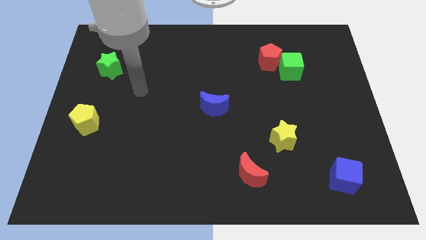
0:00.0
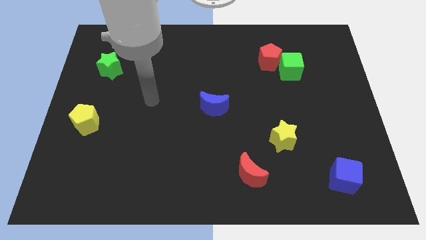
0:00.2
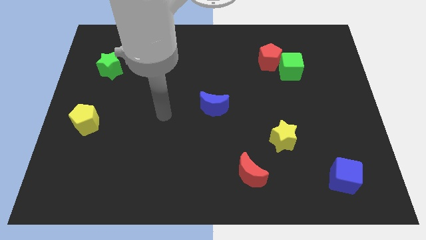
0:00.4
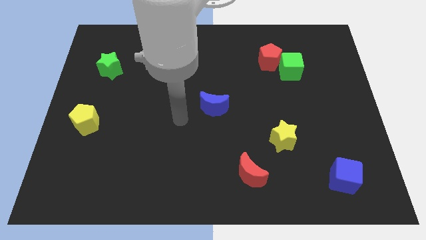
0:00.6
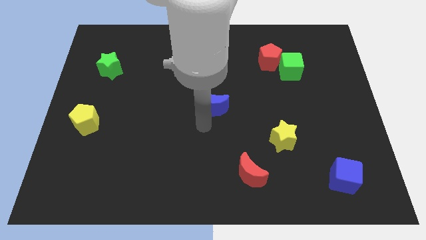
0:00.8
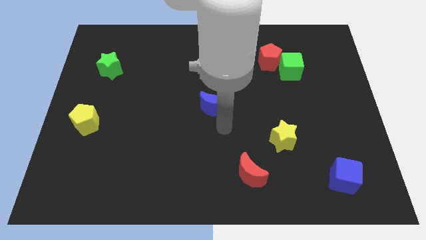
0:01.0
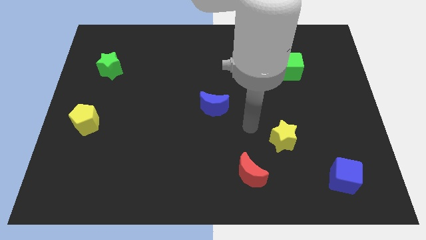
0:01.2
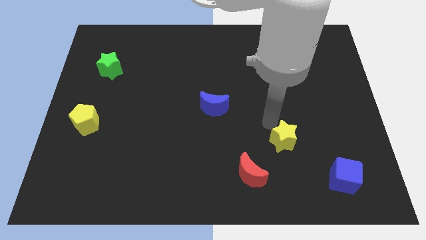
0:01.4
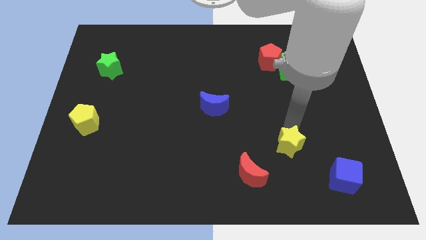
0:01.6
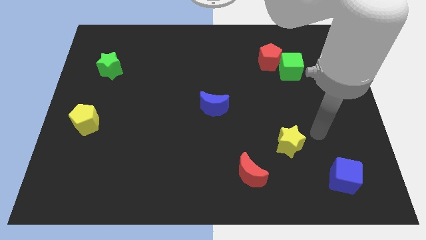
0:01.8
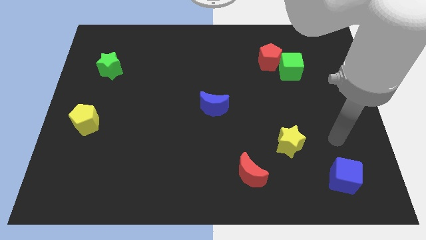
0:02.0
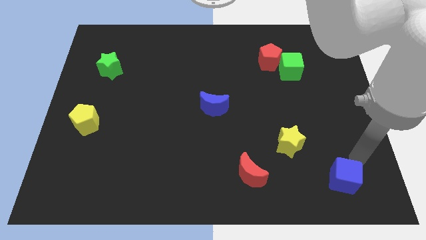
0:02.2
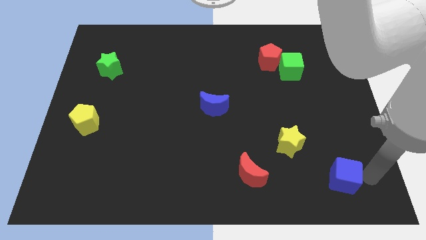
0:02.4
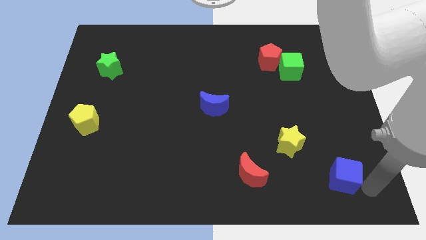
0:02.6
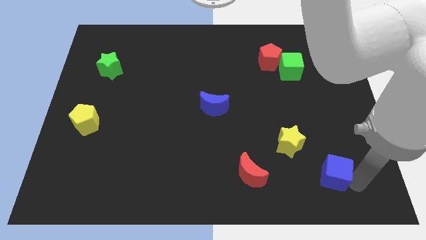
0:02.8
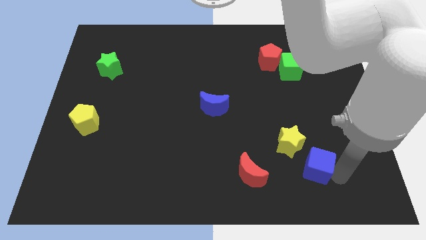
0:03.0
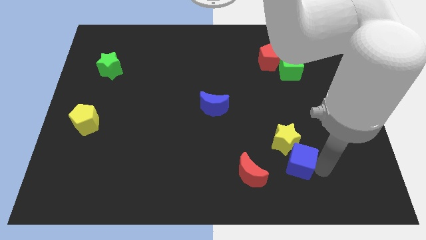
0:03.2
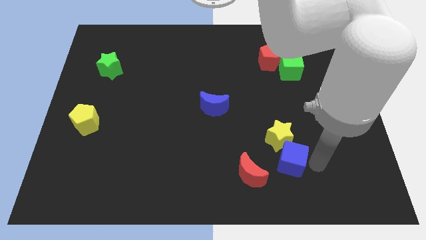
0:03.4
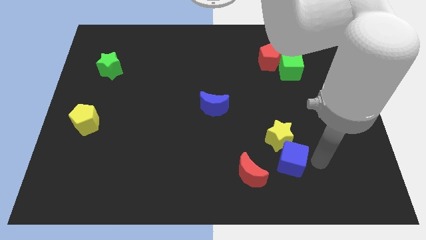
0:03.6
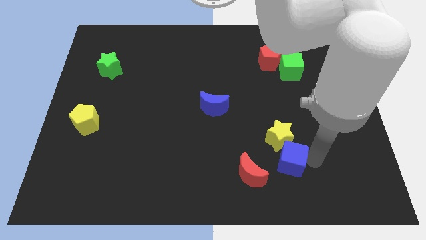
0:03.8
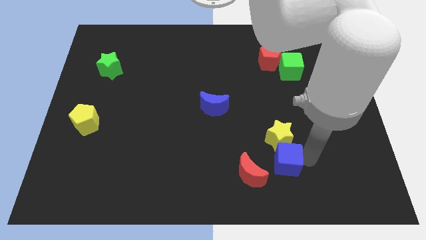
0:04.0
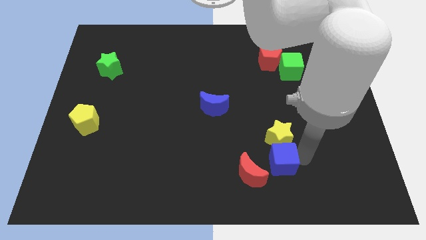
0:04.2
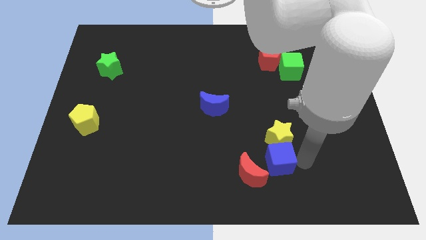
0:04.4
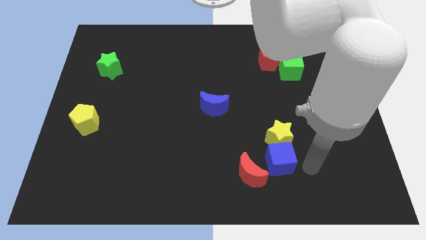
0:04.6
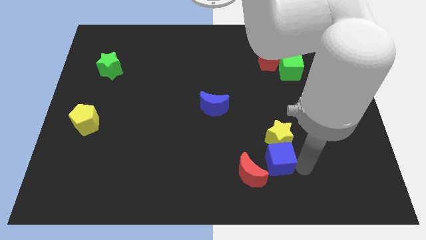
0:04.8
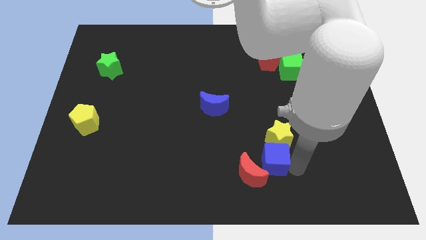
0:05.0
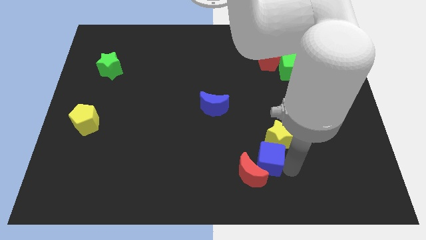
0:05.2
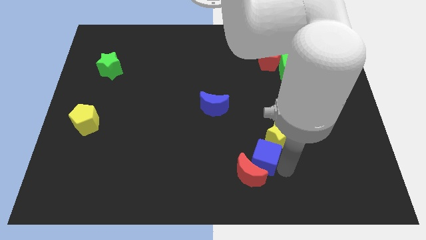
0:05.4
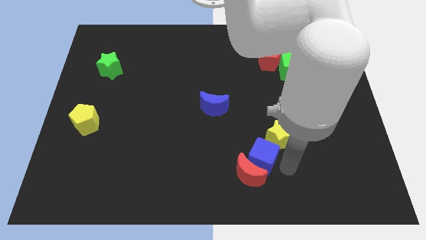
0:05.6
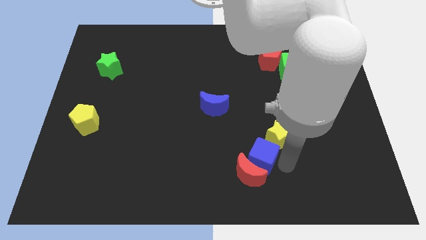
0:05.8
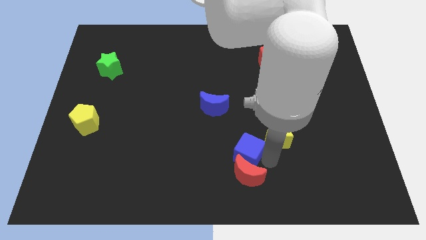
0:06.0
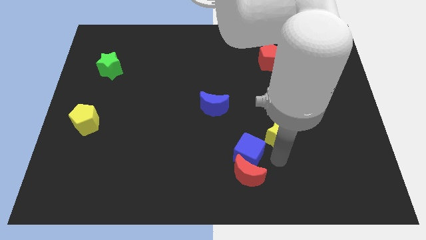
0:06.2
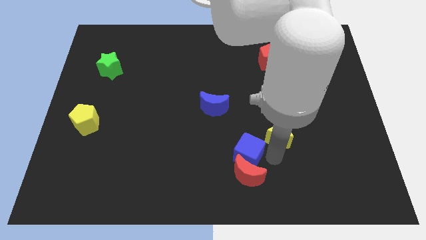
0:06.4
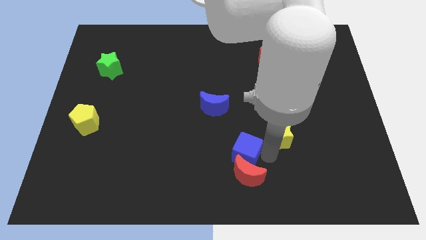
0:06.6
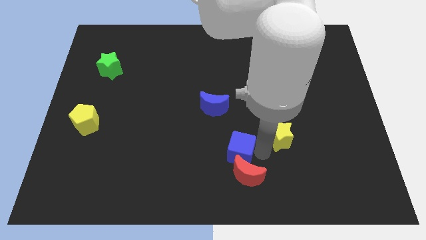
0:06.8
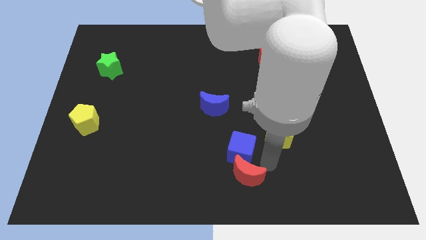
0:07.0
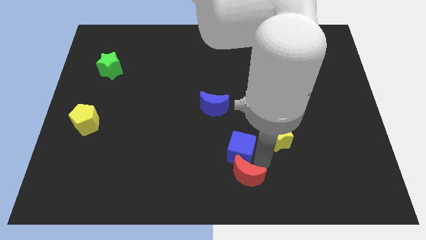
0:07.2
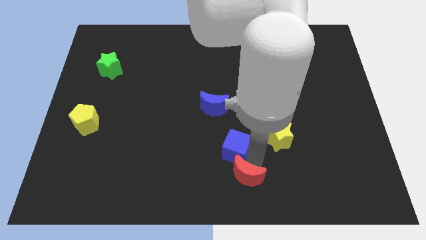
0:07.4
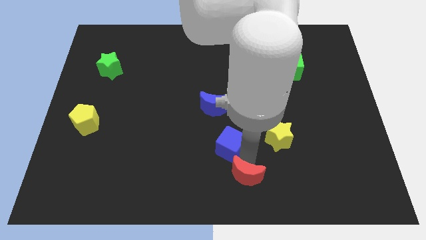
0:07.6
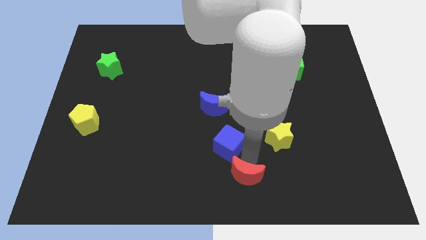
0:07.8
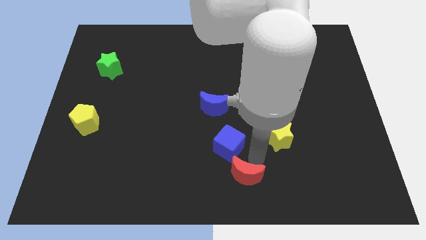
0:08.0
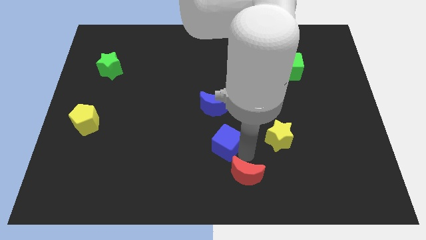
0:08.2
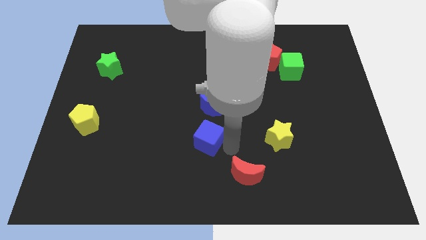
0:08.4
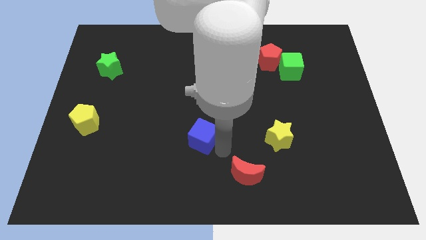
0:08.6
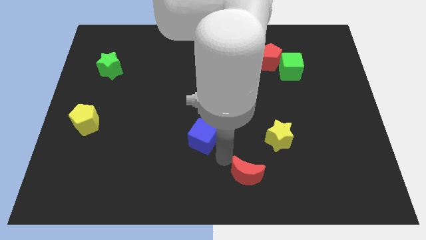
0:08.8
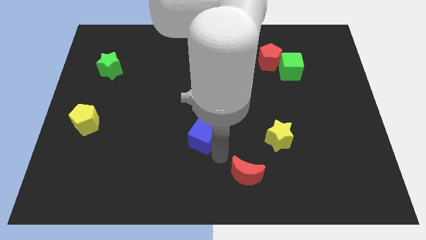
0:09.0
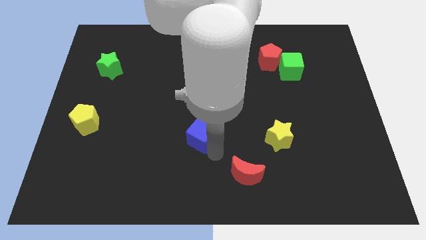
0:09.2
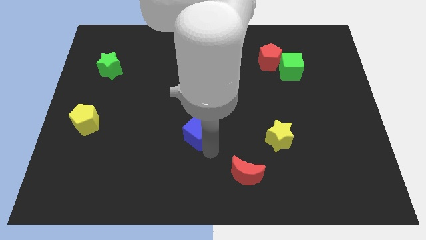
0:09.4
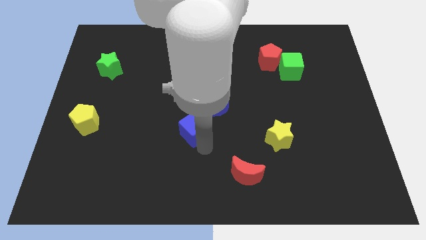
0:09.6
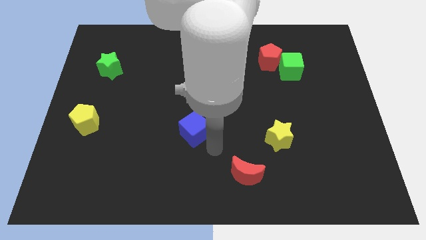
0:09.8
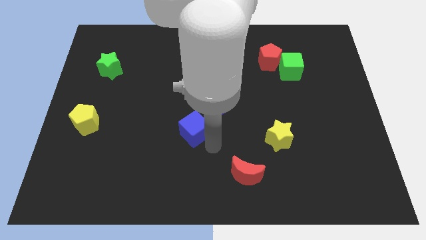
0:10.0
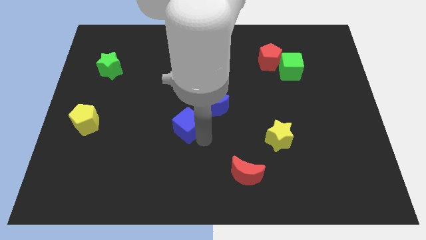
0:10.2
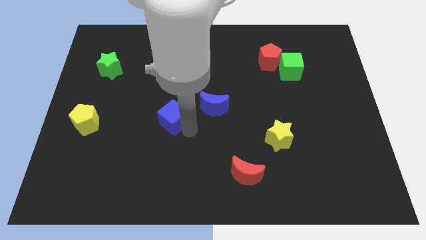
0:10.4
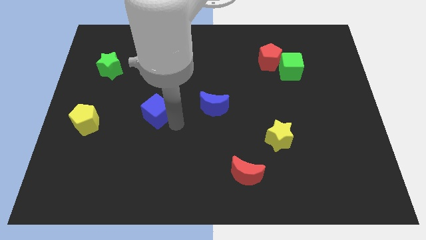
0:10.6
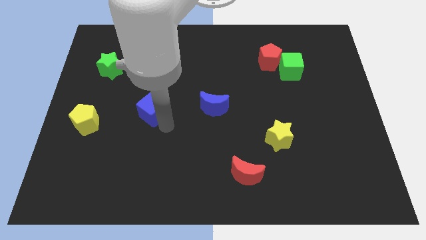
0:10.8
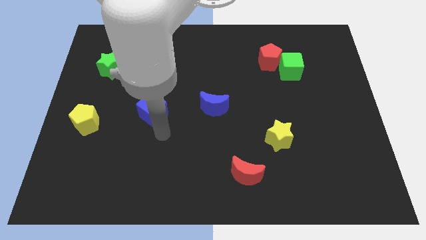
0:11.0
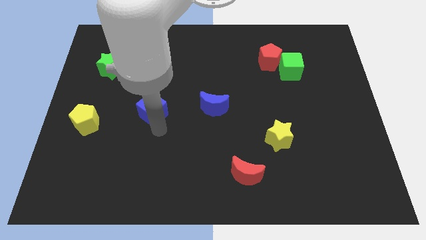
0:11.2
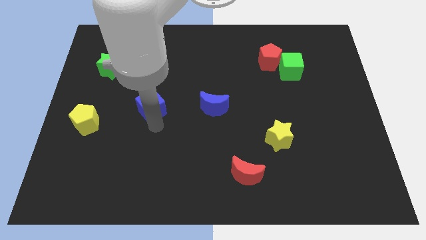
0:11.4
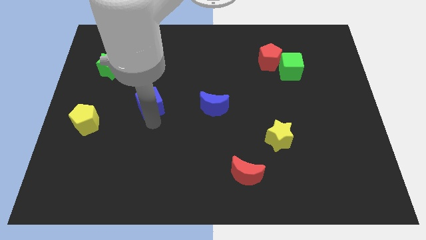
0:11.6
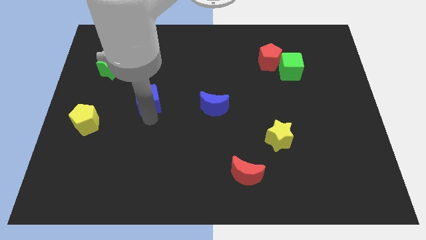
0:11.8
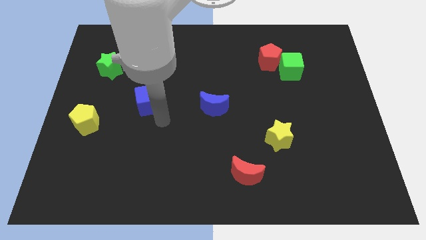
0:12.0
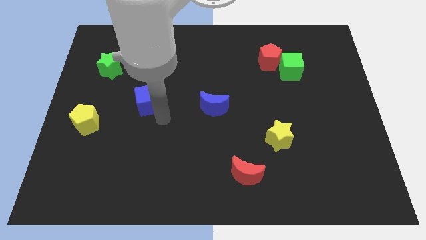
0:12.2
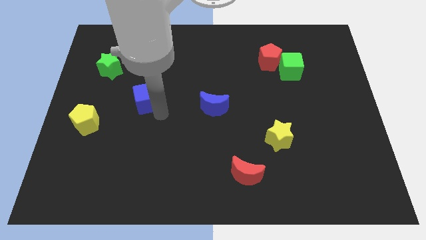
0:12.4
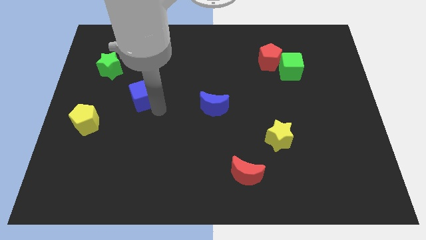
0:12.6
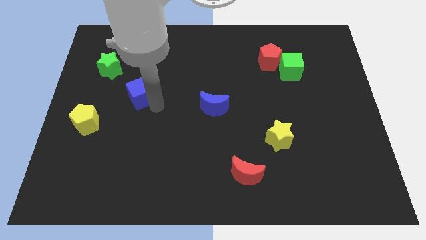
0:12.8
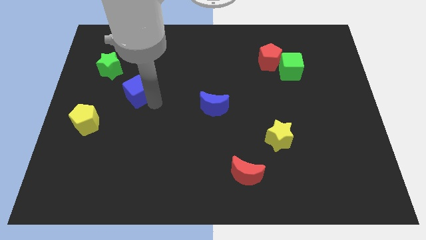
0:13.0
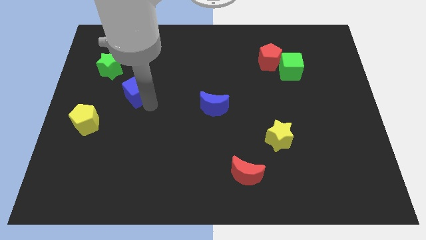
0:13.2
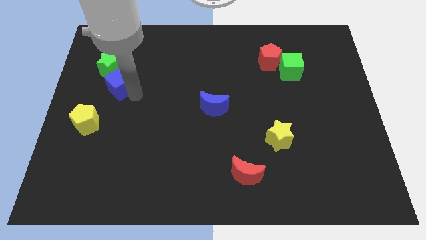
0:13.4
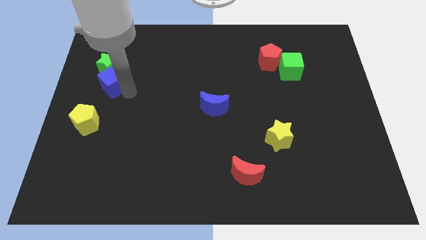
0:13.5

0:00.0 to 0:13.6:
put the blue cube towards the green star

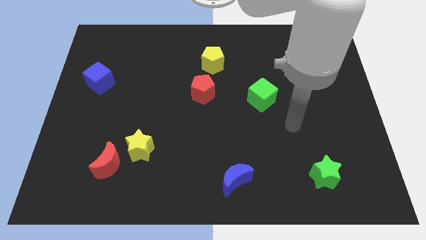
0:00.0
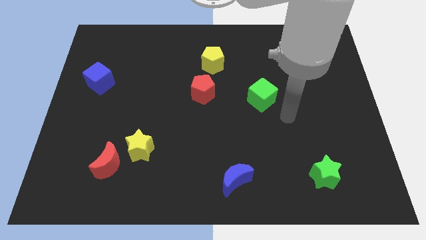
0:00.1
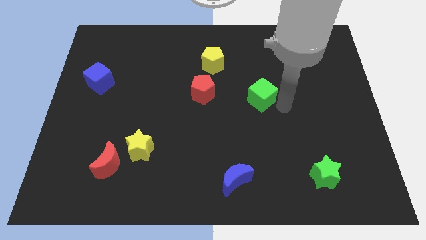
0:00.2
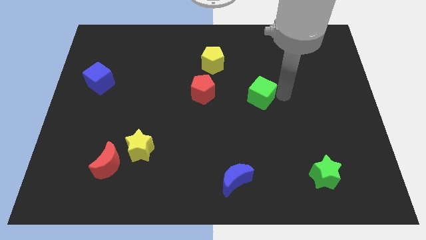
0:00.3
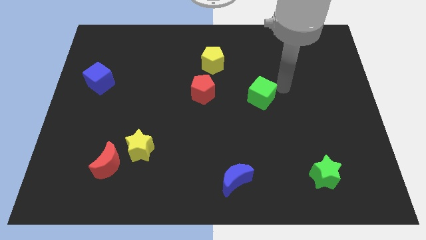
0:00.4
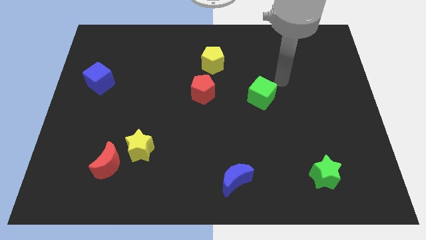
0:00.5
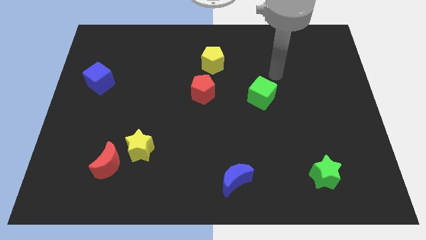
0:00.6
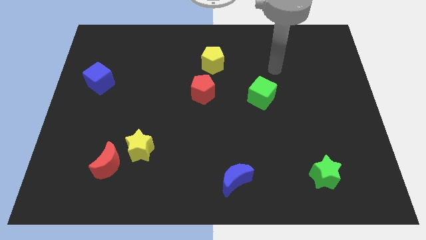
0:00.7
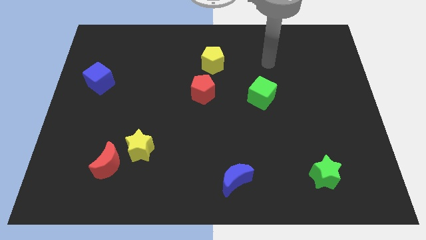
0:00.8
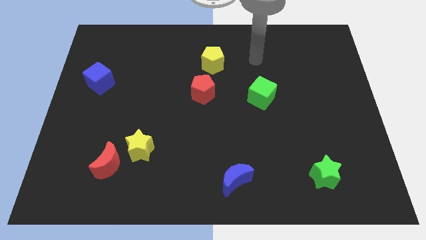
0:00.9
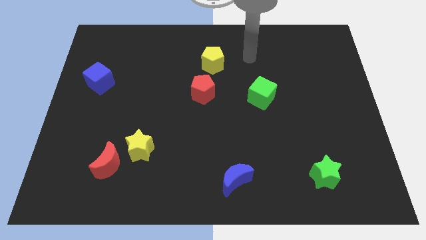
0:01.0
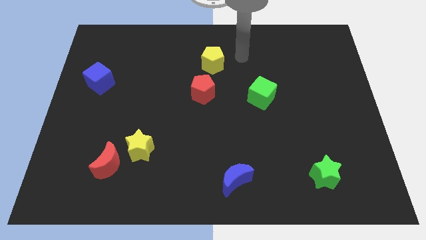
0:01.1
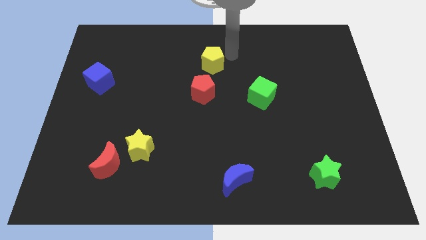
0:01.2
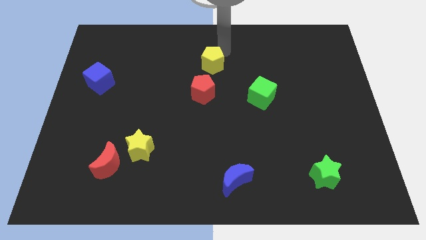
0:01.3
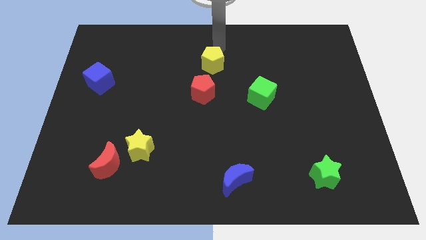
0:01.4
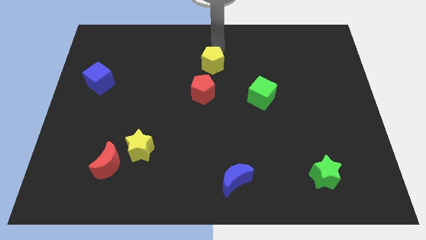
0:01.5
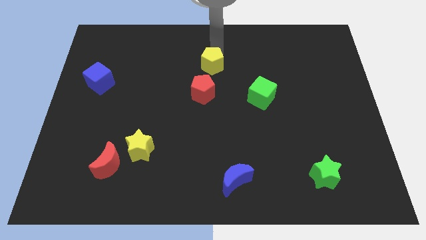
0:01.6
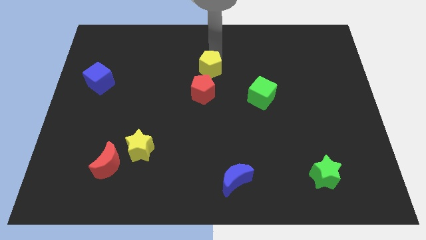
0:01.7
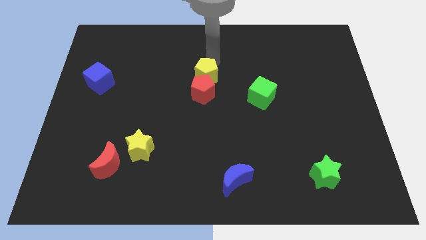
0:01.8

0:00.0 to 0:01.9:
move the yellow pentagon close to the red pentagon
